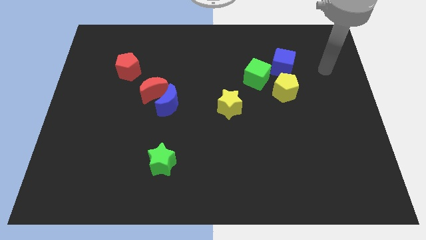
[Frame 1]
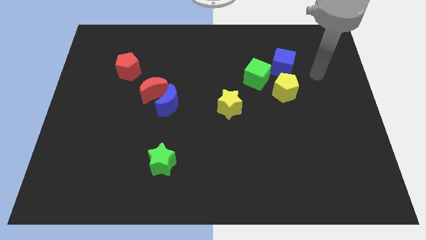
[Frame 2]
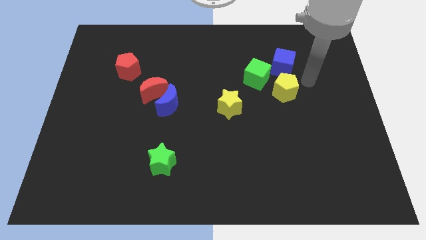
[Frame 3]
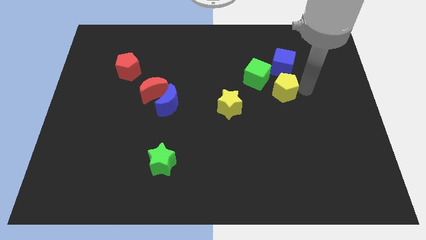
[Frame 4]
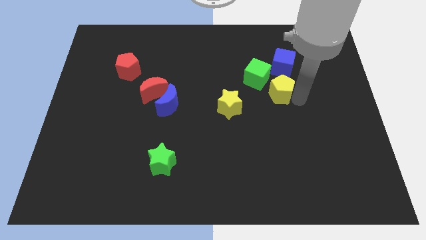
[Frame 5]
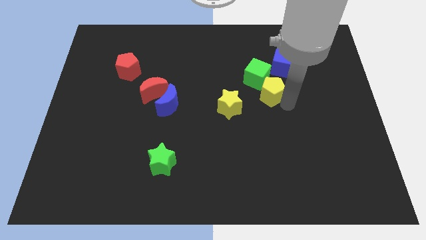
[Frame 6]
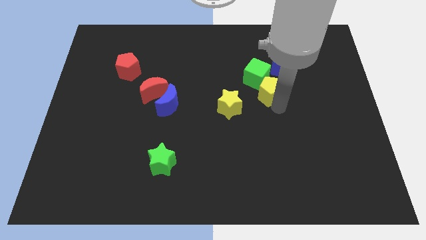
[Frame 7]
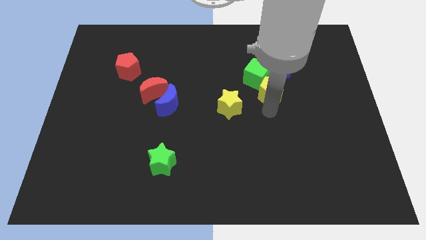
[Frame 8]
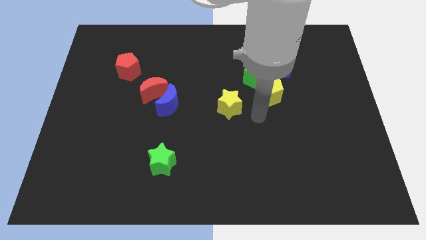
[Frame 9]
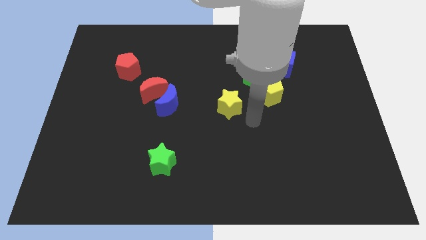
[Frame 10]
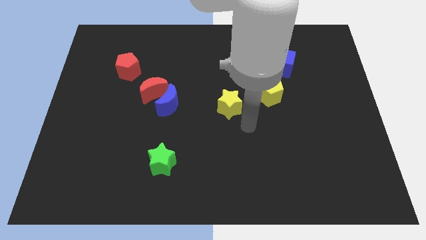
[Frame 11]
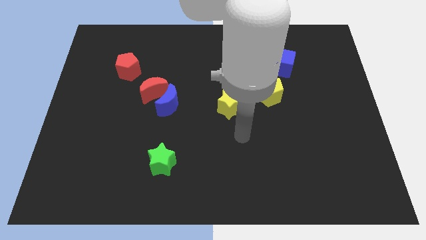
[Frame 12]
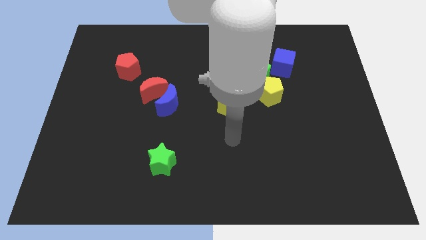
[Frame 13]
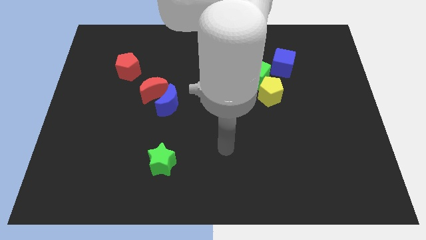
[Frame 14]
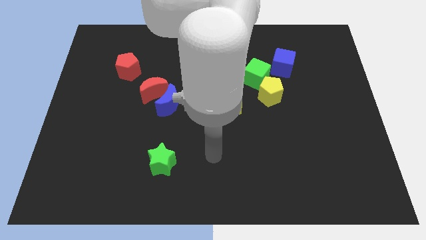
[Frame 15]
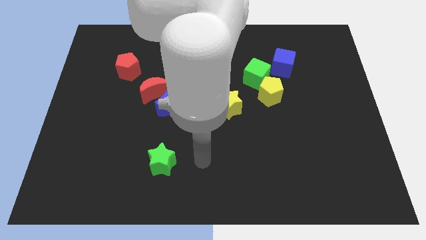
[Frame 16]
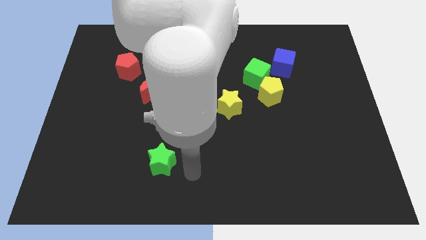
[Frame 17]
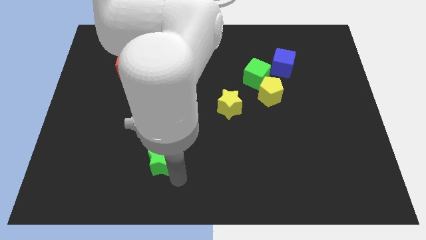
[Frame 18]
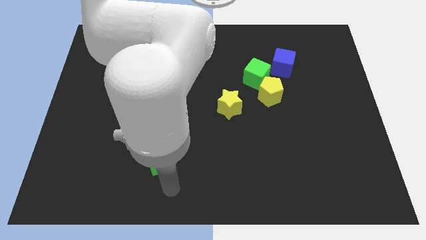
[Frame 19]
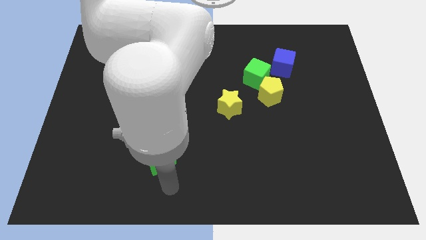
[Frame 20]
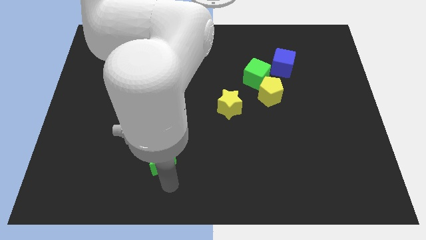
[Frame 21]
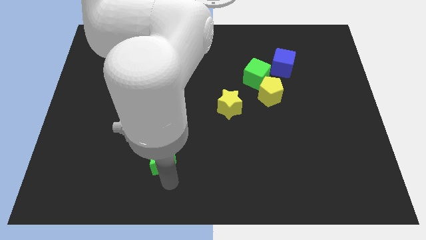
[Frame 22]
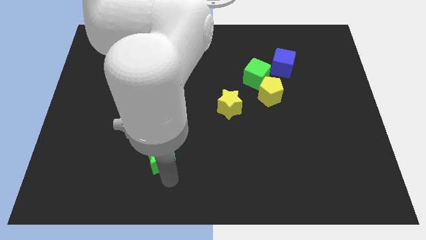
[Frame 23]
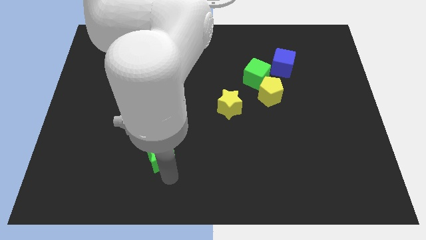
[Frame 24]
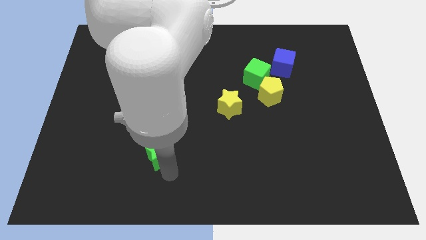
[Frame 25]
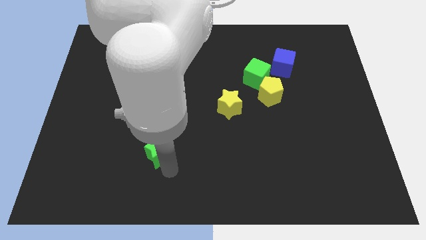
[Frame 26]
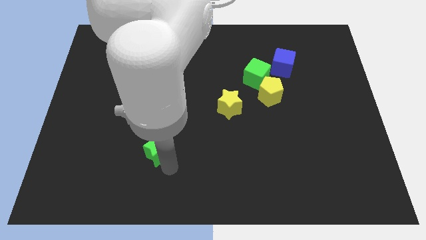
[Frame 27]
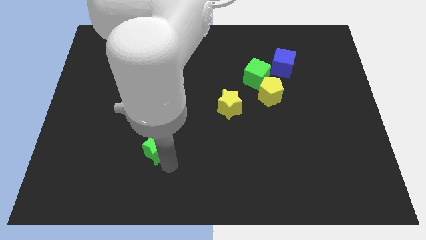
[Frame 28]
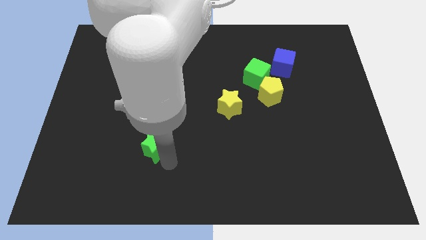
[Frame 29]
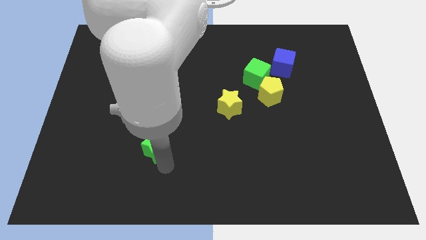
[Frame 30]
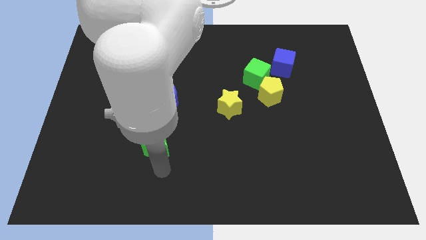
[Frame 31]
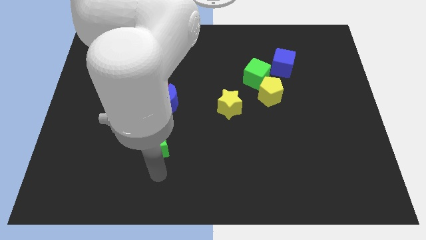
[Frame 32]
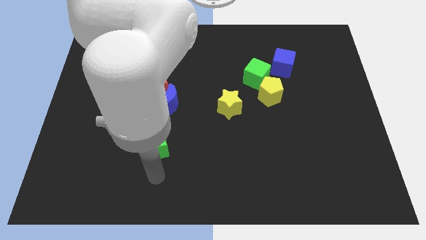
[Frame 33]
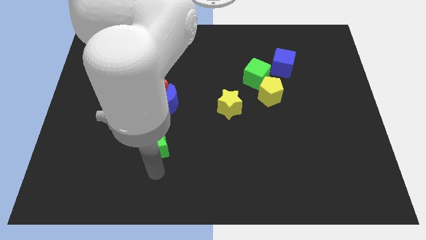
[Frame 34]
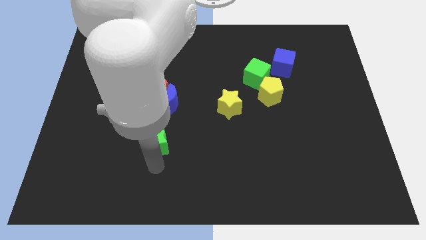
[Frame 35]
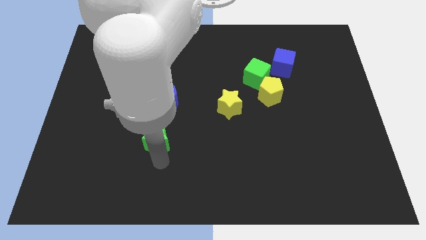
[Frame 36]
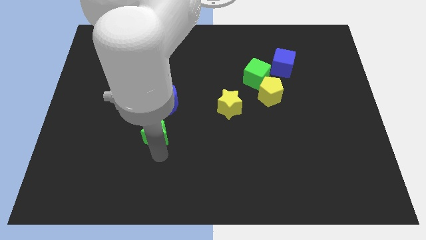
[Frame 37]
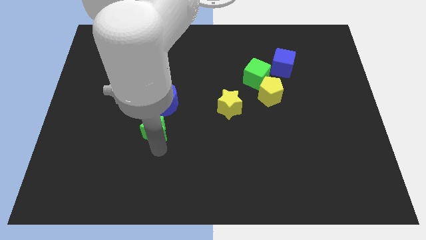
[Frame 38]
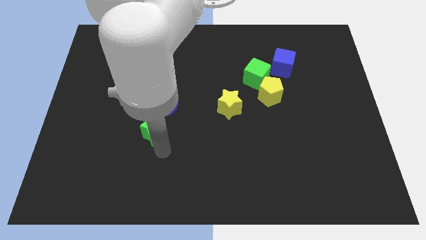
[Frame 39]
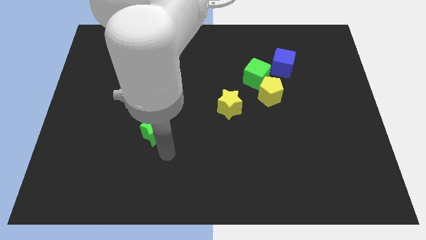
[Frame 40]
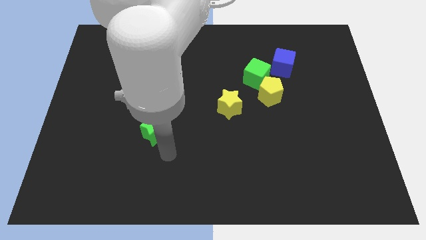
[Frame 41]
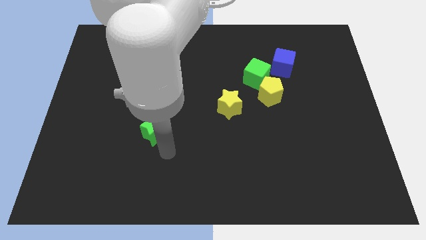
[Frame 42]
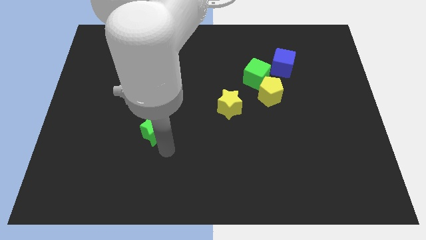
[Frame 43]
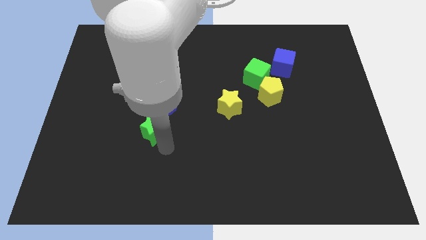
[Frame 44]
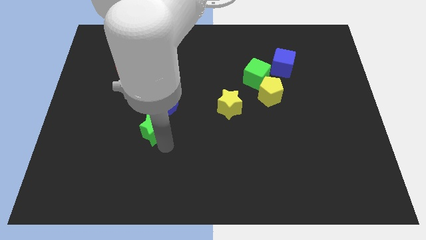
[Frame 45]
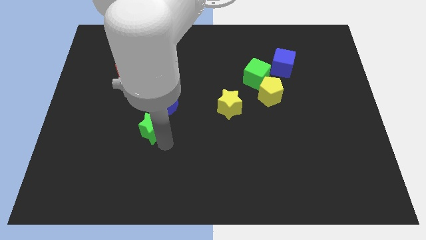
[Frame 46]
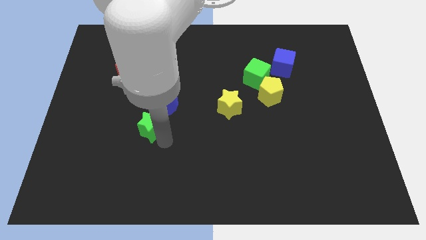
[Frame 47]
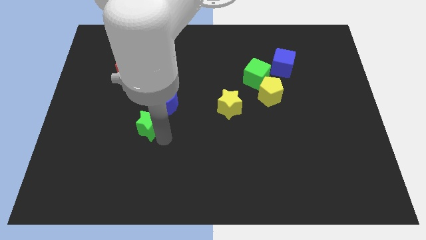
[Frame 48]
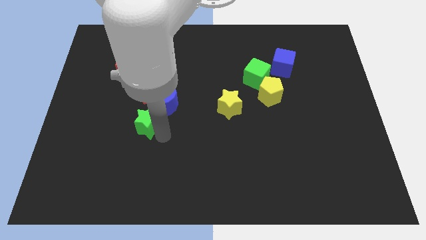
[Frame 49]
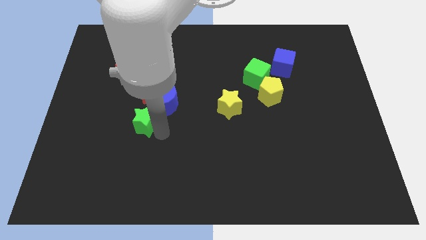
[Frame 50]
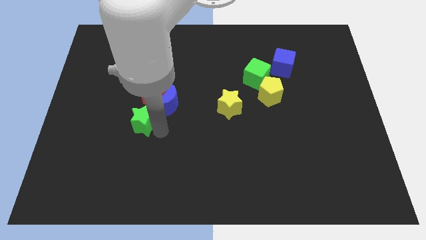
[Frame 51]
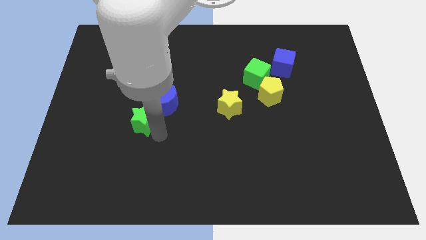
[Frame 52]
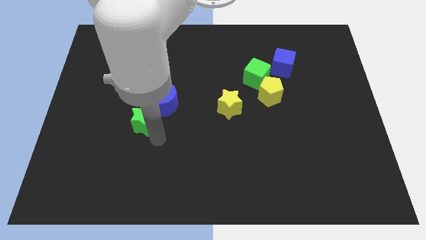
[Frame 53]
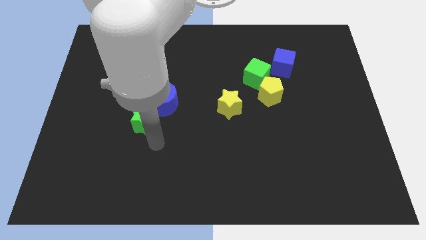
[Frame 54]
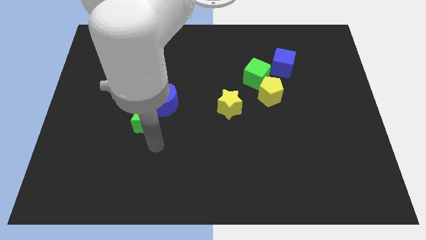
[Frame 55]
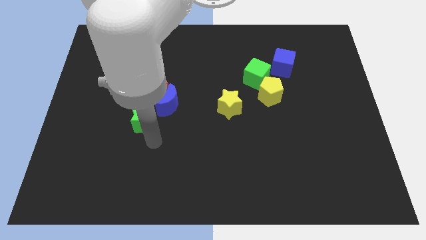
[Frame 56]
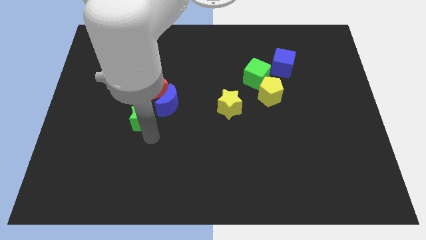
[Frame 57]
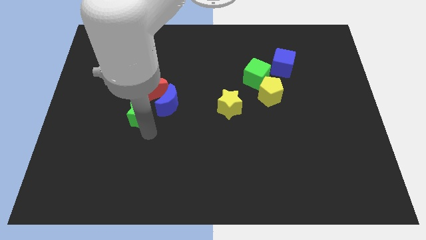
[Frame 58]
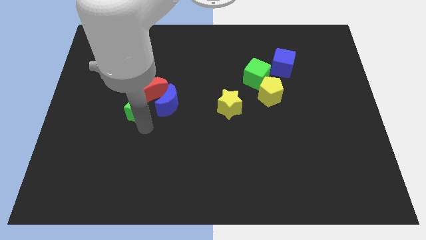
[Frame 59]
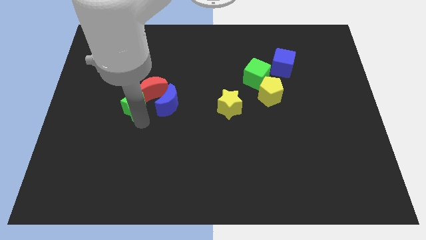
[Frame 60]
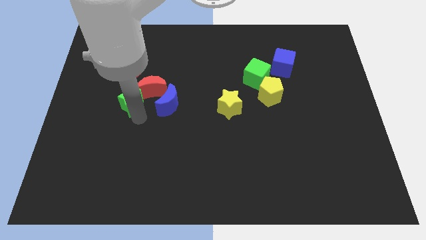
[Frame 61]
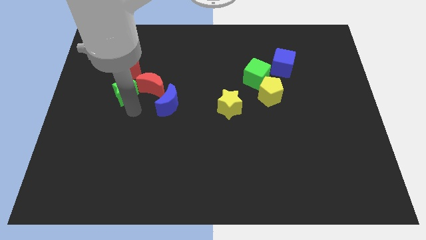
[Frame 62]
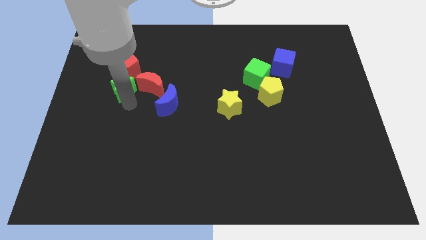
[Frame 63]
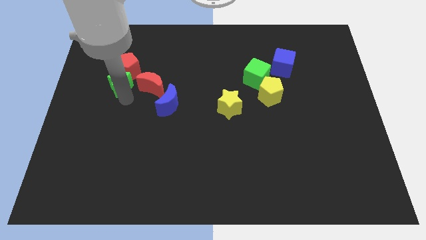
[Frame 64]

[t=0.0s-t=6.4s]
put the green star towards the red pentagon

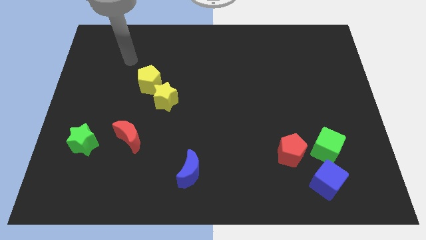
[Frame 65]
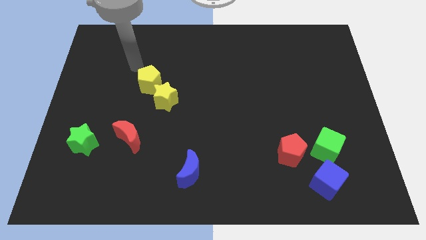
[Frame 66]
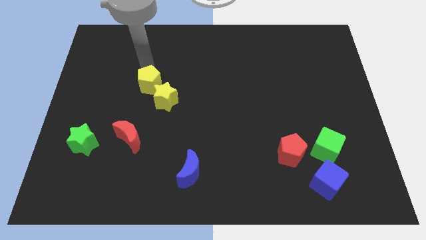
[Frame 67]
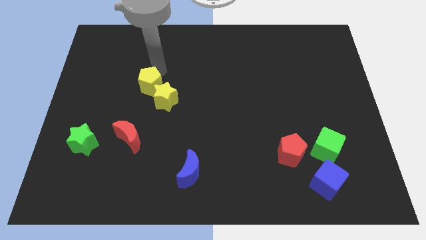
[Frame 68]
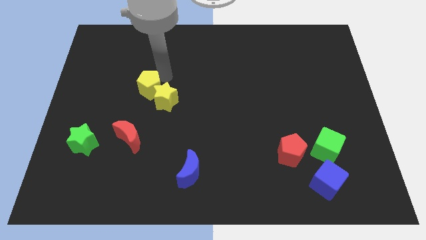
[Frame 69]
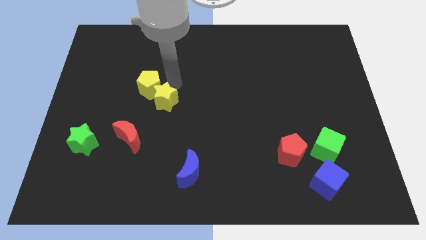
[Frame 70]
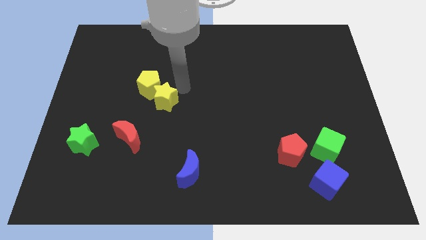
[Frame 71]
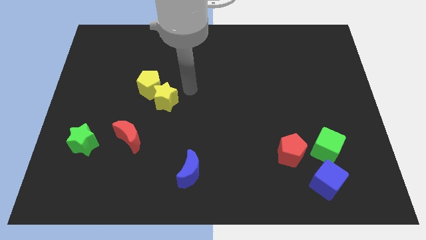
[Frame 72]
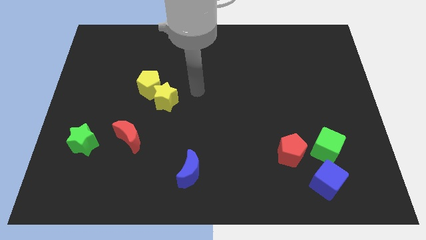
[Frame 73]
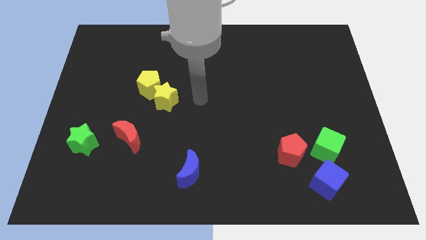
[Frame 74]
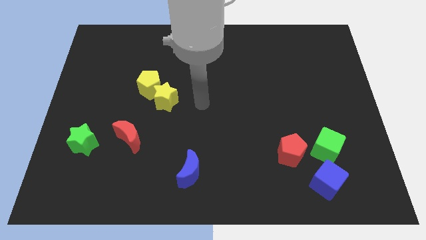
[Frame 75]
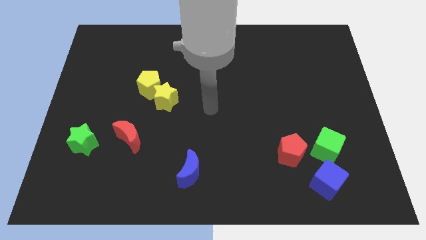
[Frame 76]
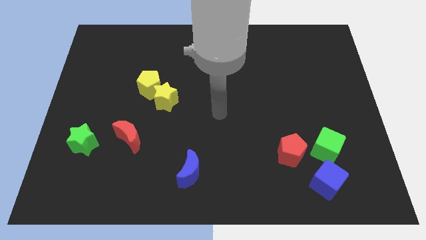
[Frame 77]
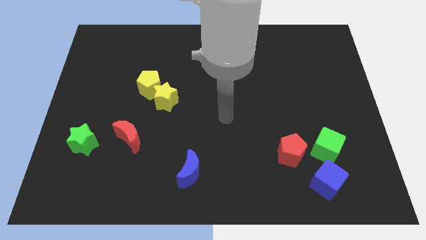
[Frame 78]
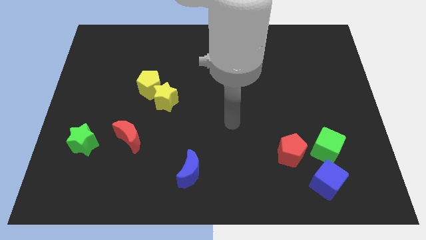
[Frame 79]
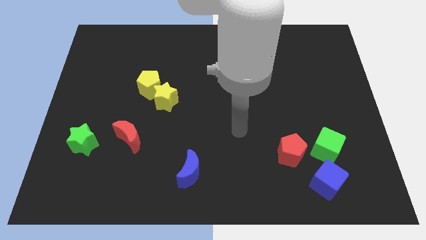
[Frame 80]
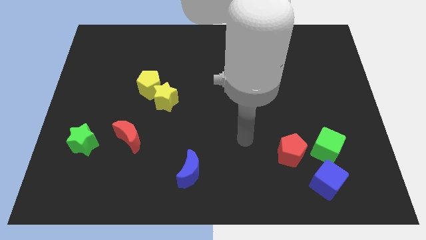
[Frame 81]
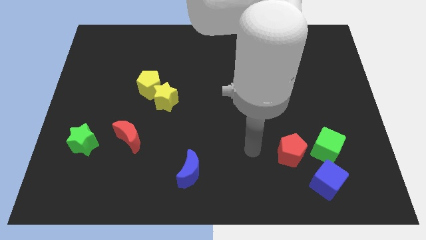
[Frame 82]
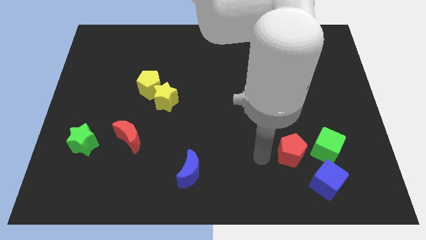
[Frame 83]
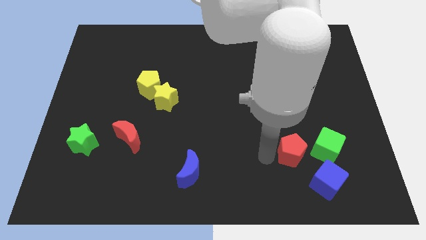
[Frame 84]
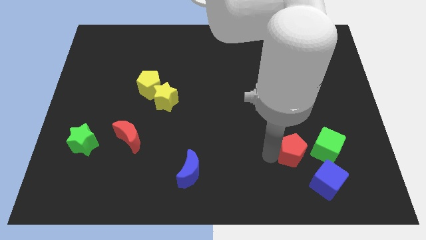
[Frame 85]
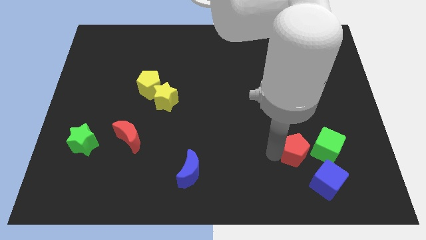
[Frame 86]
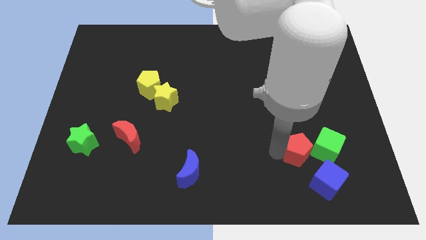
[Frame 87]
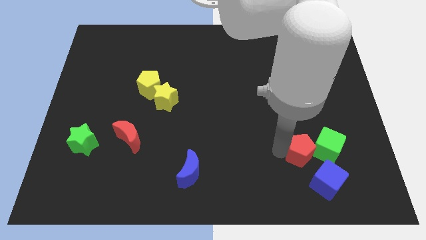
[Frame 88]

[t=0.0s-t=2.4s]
put the red pentagon towards the green cube
